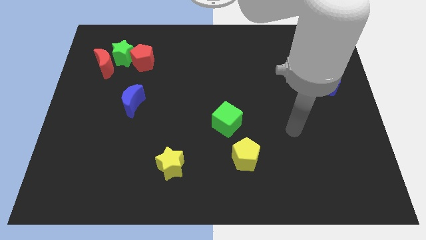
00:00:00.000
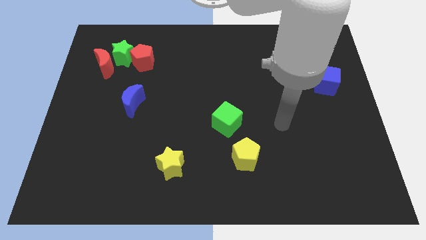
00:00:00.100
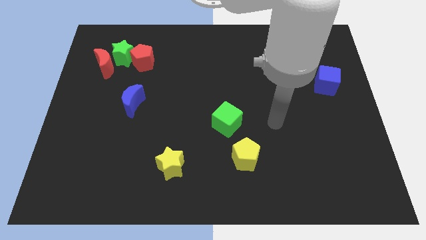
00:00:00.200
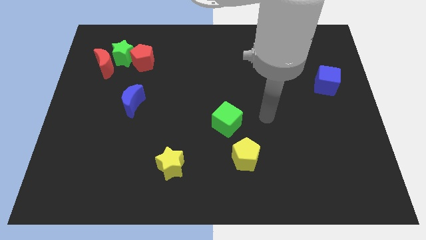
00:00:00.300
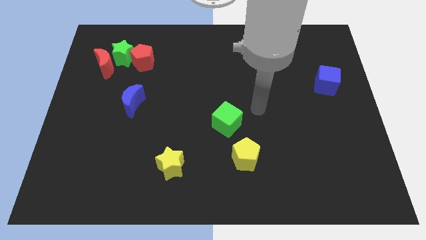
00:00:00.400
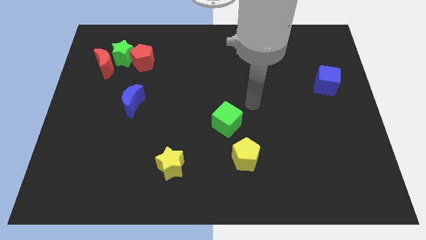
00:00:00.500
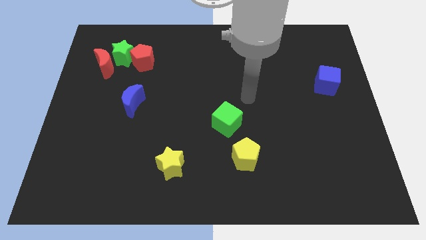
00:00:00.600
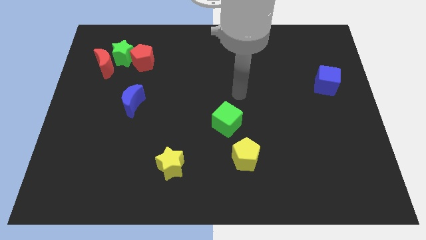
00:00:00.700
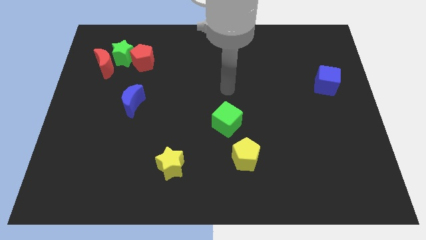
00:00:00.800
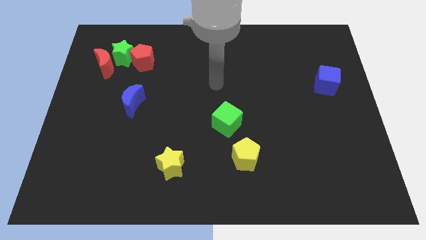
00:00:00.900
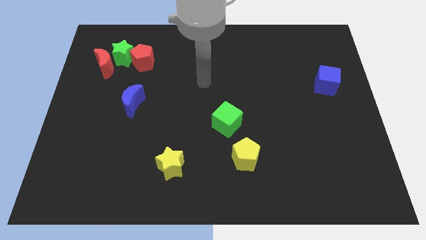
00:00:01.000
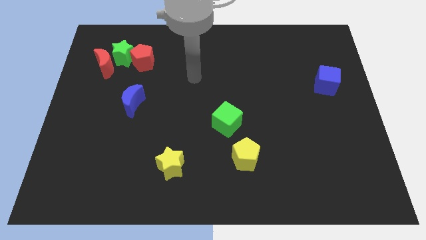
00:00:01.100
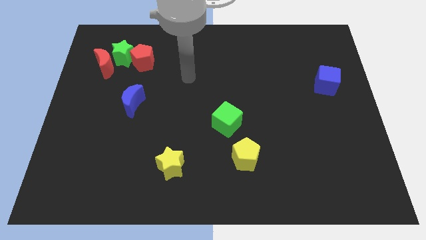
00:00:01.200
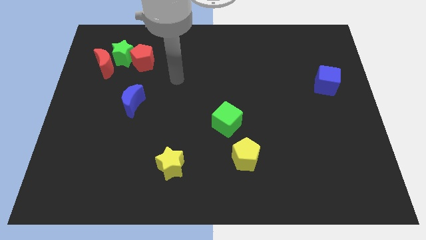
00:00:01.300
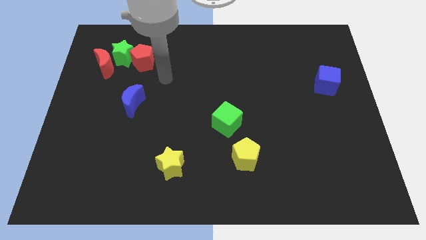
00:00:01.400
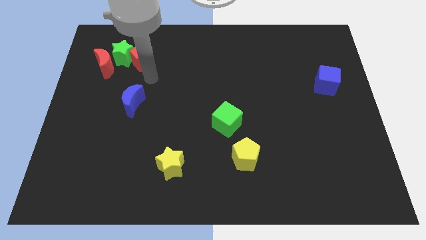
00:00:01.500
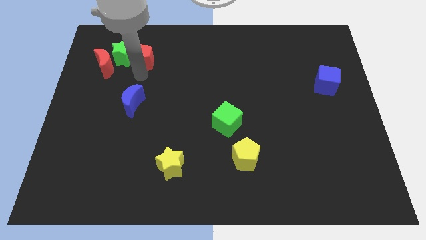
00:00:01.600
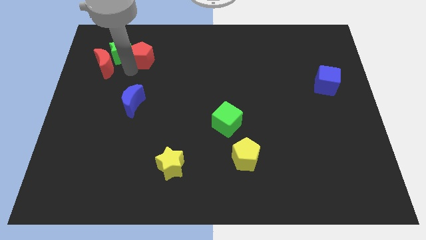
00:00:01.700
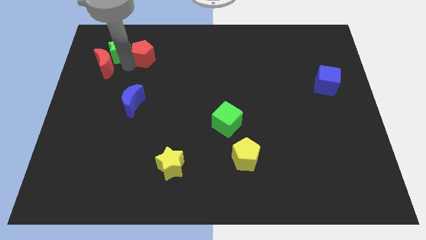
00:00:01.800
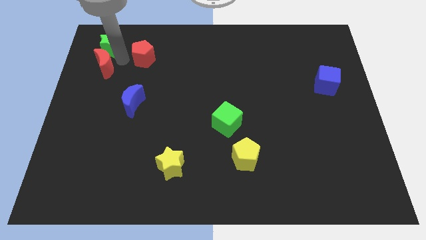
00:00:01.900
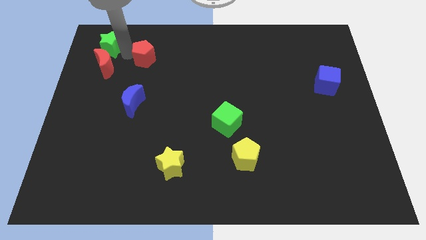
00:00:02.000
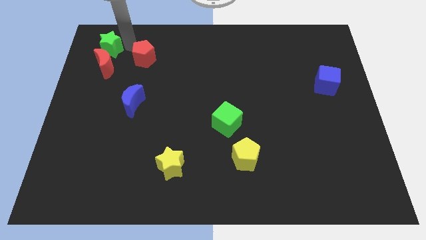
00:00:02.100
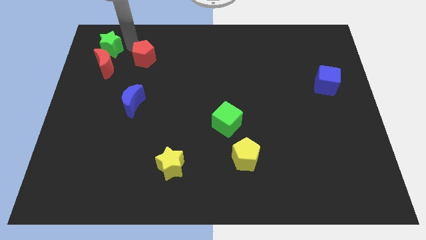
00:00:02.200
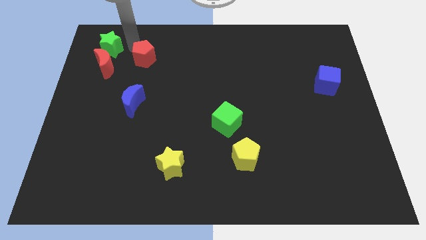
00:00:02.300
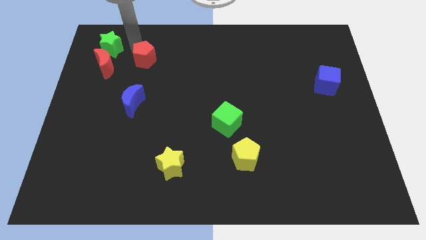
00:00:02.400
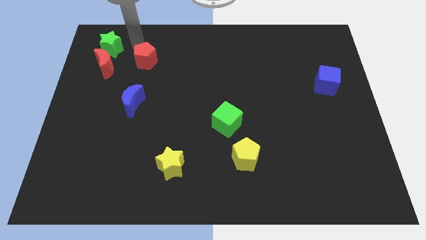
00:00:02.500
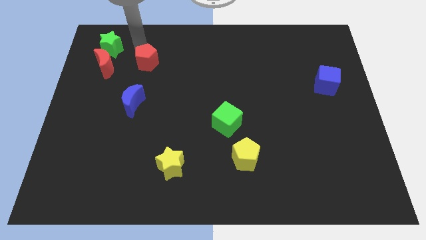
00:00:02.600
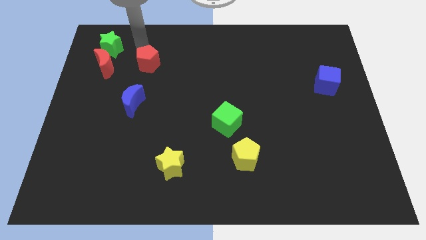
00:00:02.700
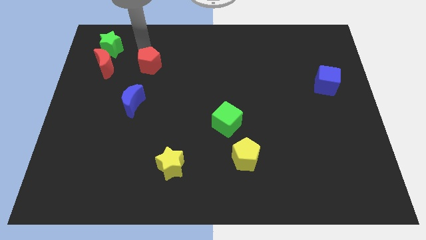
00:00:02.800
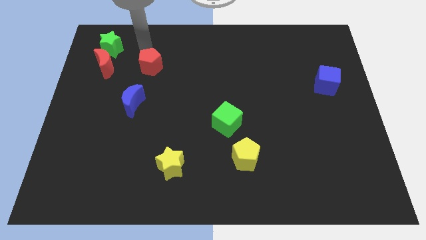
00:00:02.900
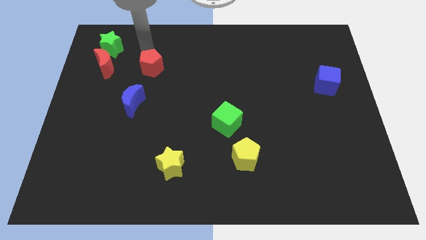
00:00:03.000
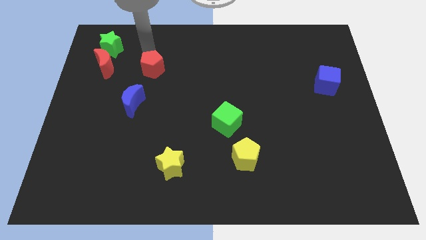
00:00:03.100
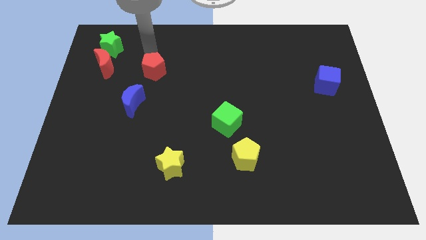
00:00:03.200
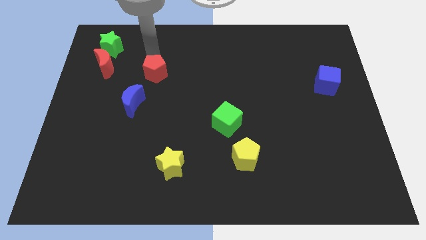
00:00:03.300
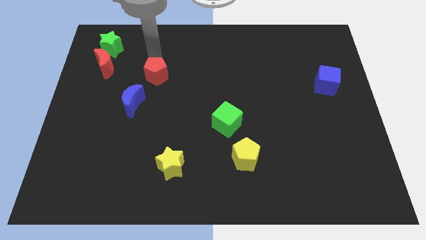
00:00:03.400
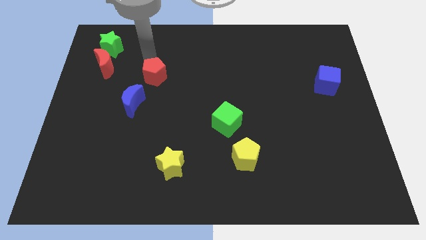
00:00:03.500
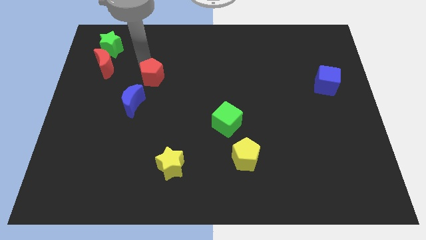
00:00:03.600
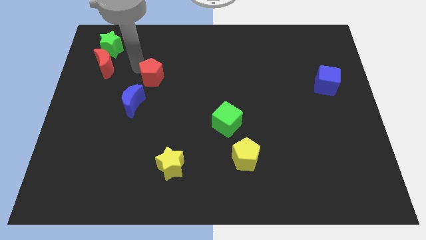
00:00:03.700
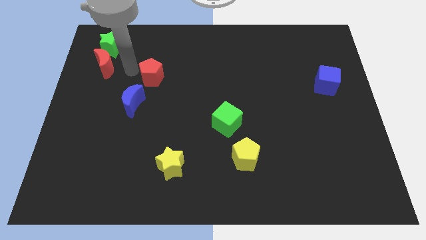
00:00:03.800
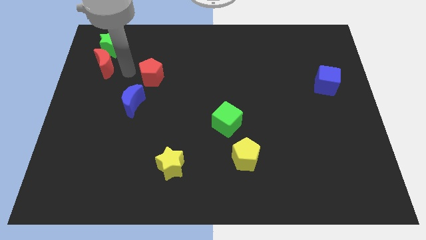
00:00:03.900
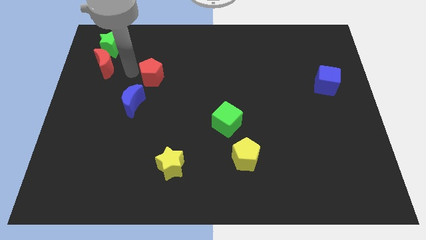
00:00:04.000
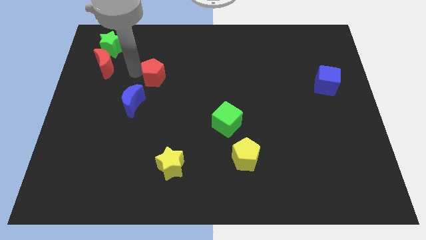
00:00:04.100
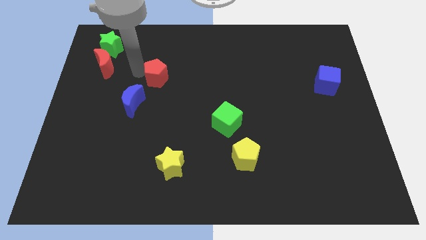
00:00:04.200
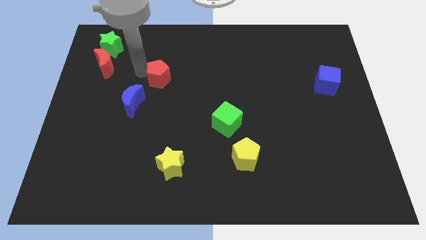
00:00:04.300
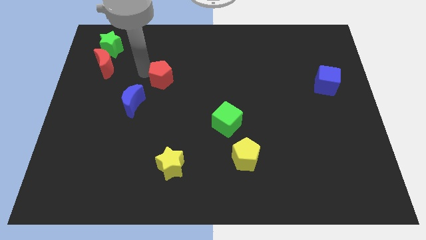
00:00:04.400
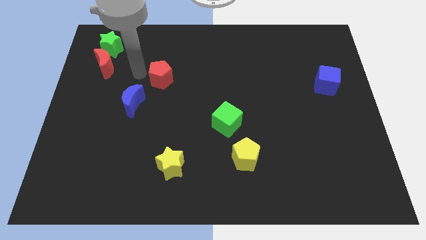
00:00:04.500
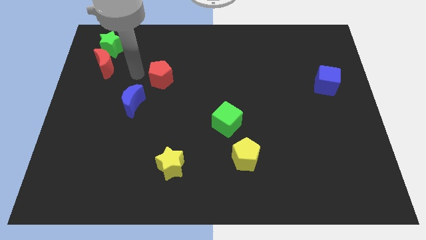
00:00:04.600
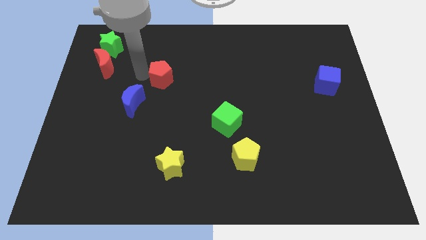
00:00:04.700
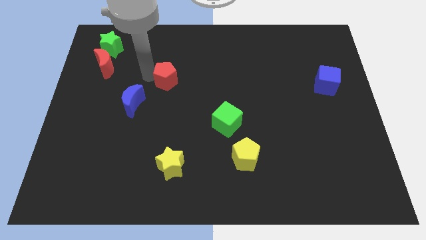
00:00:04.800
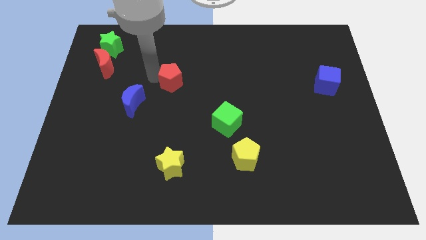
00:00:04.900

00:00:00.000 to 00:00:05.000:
push the red pentagon to the center of the board
